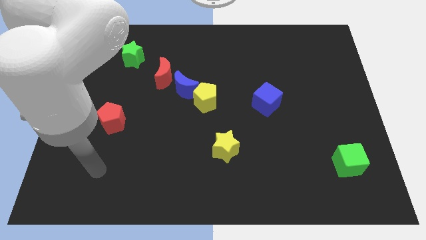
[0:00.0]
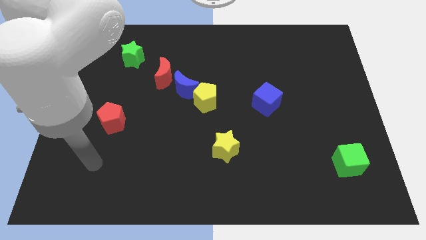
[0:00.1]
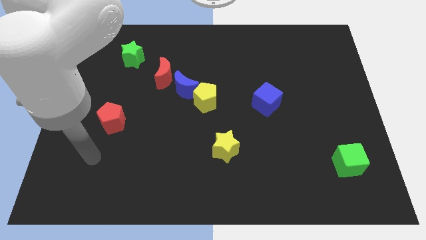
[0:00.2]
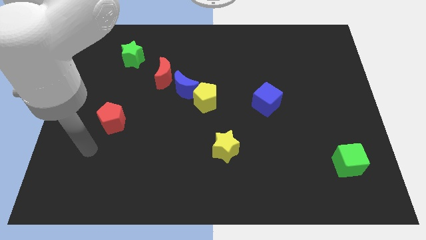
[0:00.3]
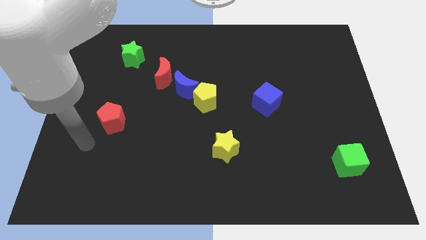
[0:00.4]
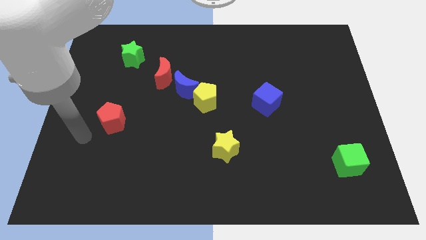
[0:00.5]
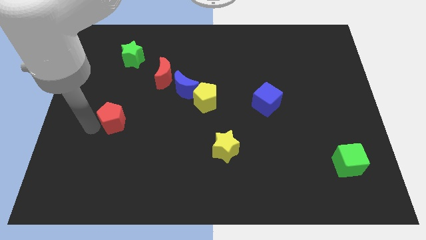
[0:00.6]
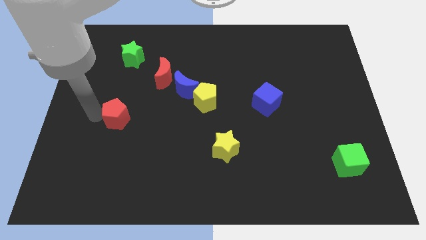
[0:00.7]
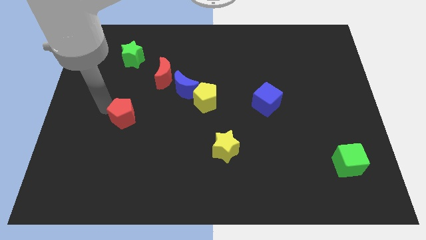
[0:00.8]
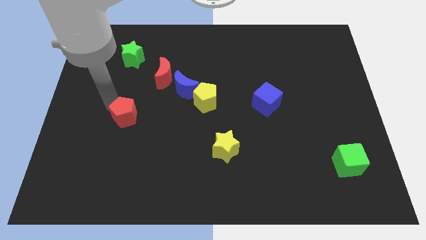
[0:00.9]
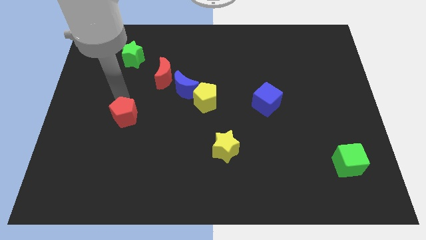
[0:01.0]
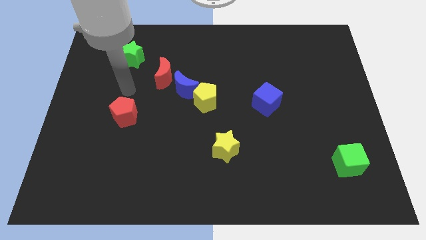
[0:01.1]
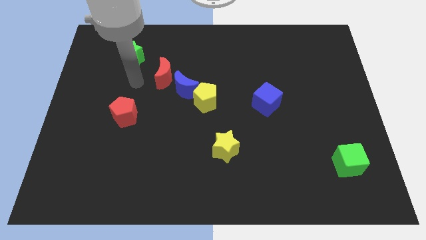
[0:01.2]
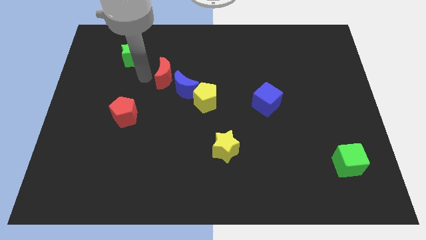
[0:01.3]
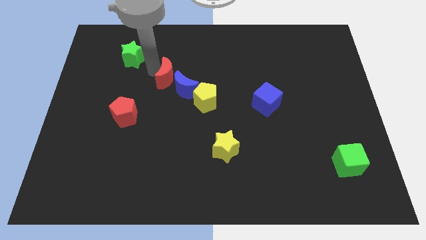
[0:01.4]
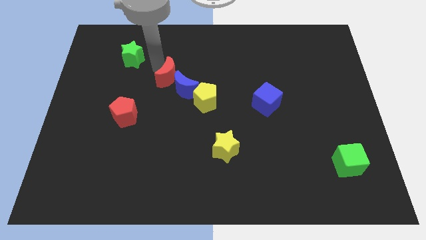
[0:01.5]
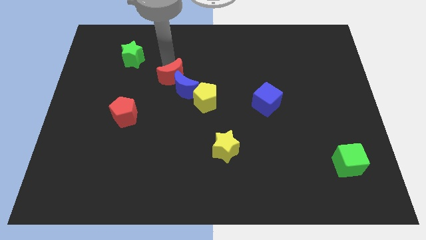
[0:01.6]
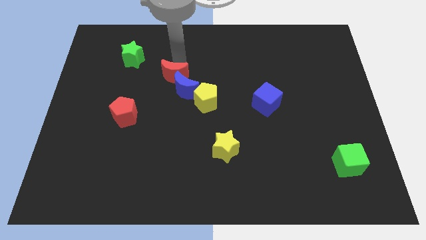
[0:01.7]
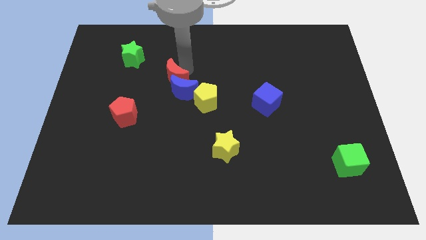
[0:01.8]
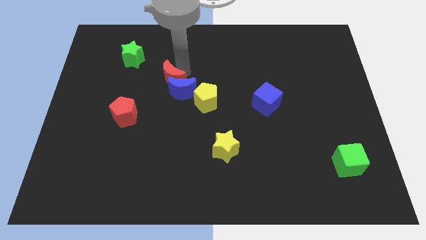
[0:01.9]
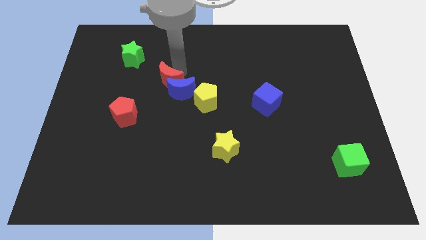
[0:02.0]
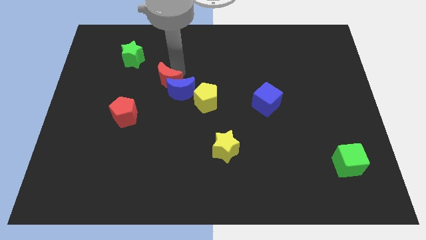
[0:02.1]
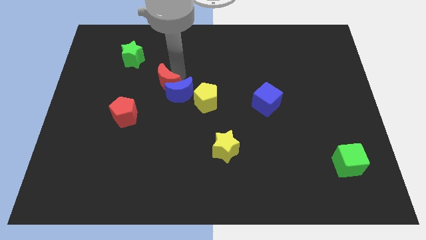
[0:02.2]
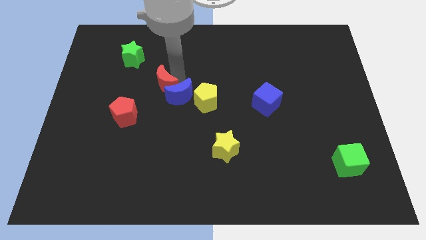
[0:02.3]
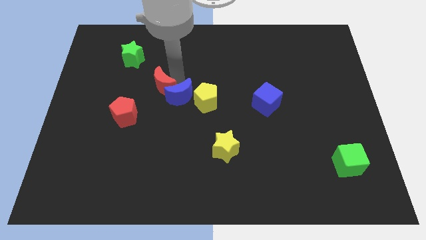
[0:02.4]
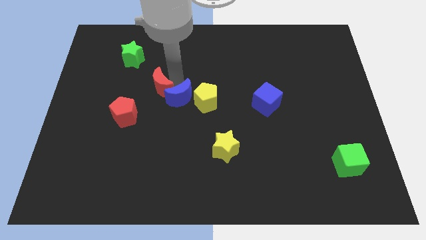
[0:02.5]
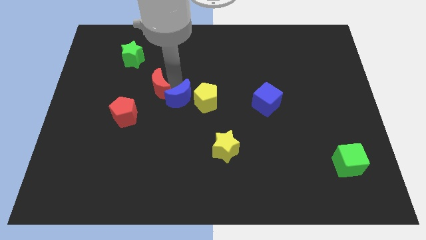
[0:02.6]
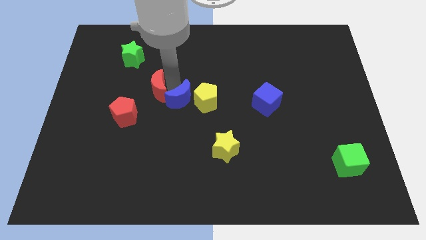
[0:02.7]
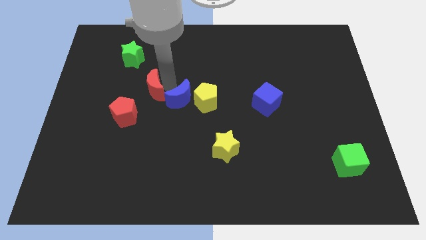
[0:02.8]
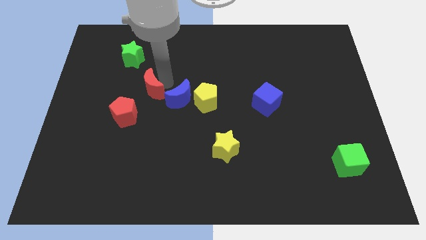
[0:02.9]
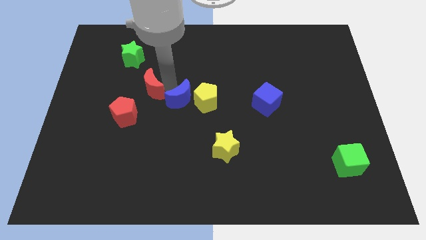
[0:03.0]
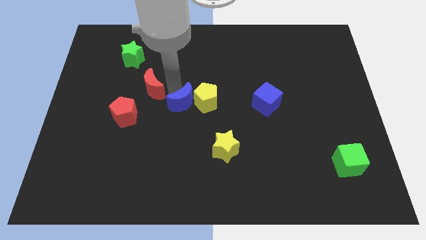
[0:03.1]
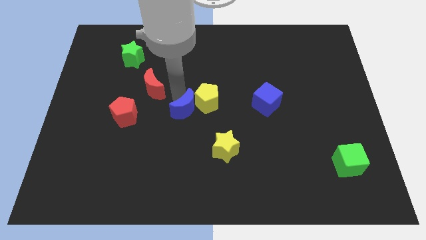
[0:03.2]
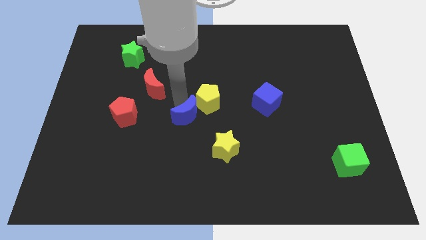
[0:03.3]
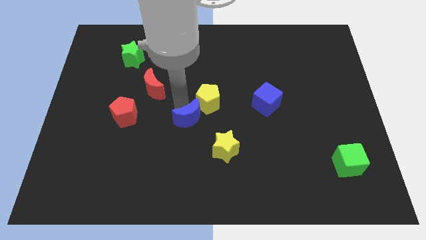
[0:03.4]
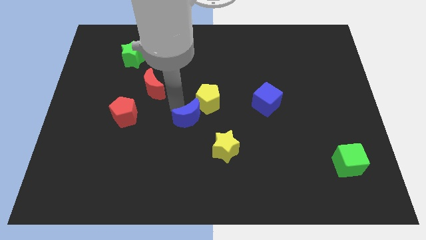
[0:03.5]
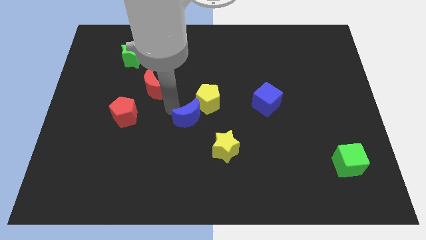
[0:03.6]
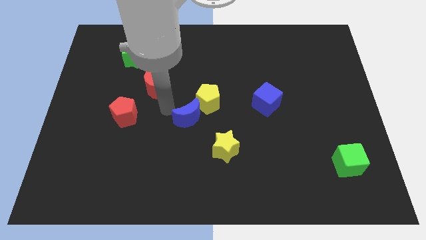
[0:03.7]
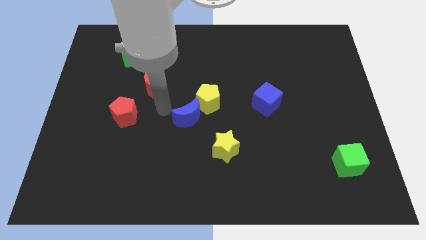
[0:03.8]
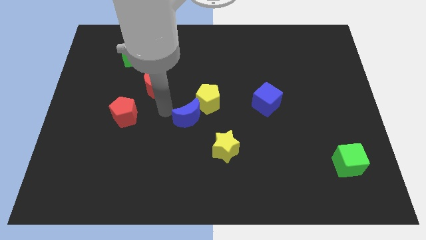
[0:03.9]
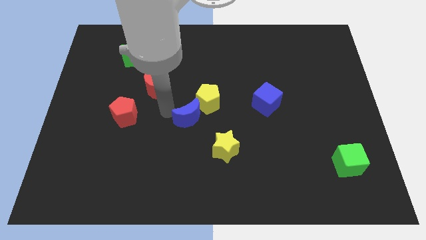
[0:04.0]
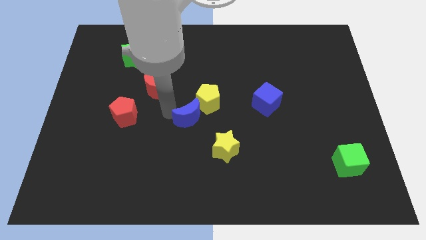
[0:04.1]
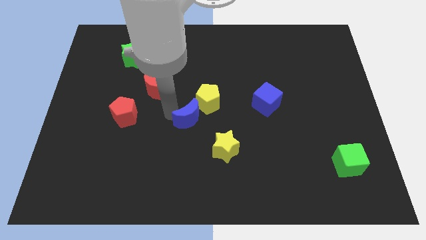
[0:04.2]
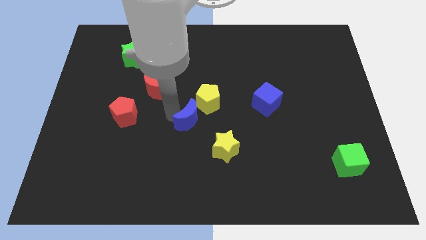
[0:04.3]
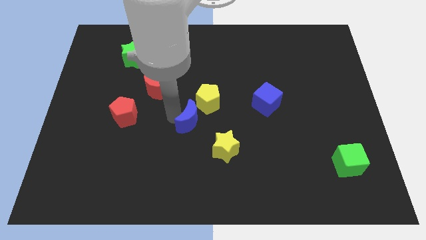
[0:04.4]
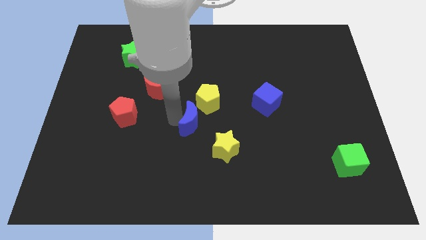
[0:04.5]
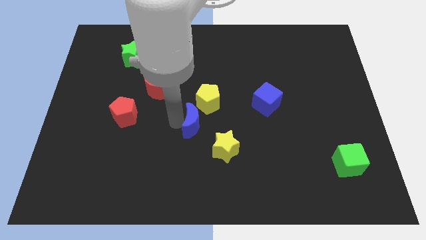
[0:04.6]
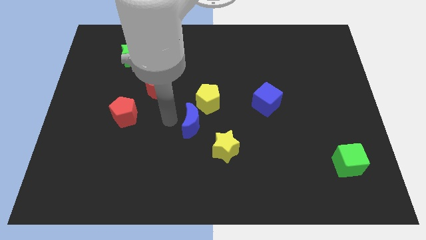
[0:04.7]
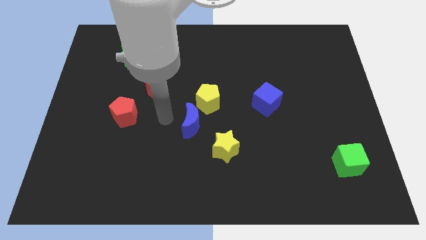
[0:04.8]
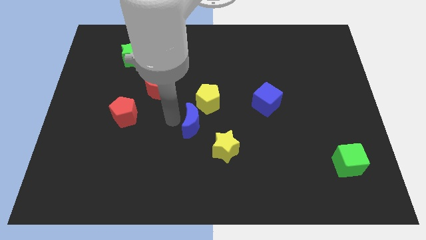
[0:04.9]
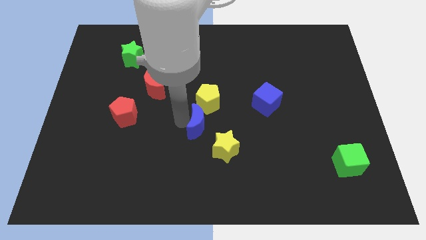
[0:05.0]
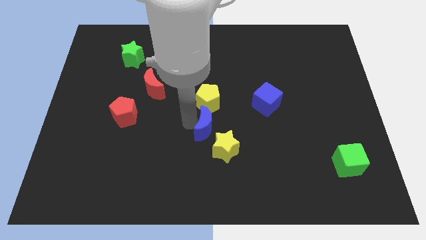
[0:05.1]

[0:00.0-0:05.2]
put the blue moon to the top side of the yellow star

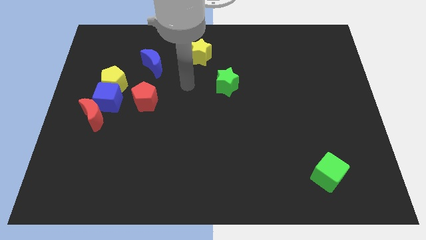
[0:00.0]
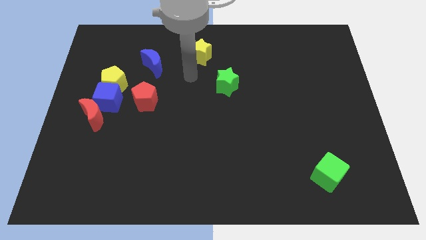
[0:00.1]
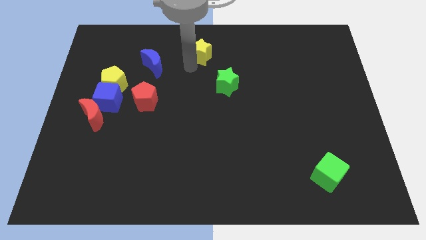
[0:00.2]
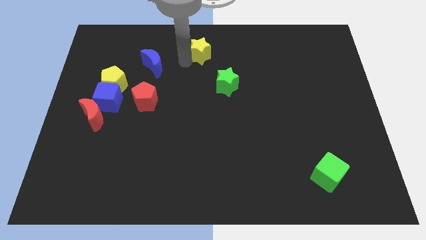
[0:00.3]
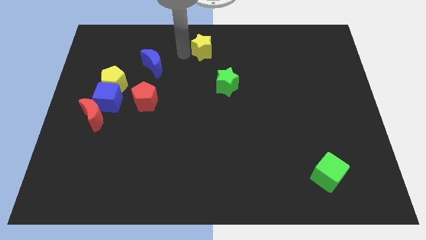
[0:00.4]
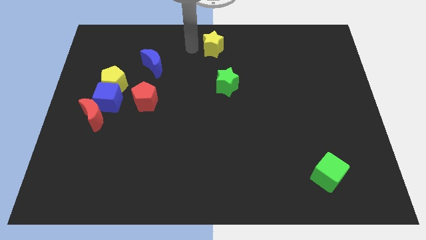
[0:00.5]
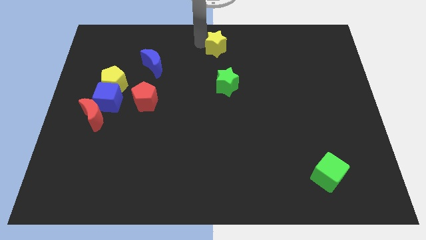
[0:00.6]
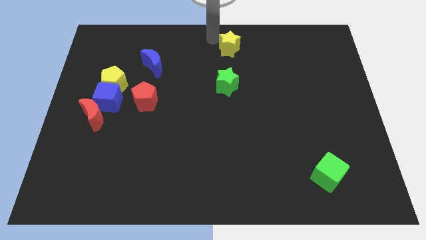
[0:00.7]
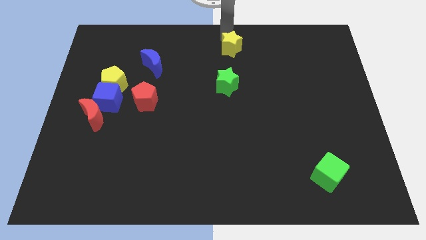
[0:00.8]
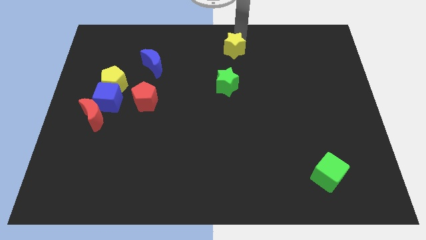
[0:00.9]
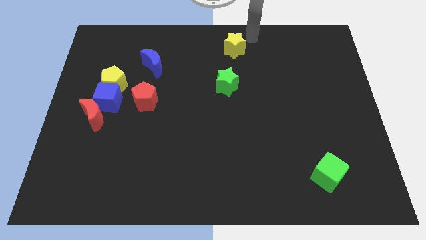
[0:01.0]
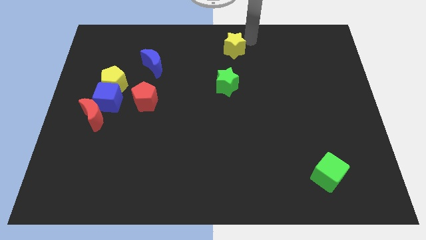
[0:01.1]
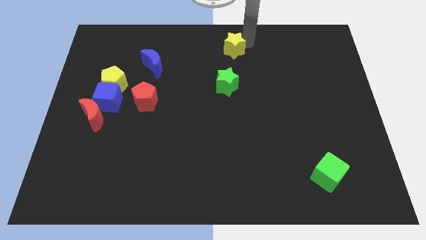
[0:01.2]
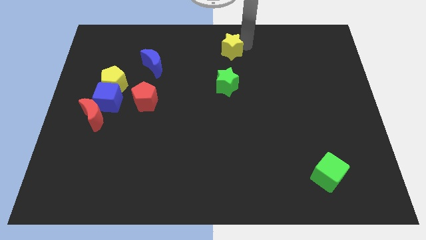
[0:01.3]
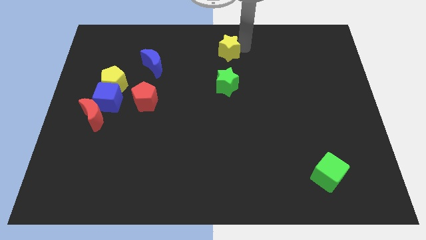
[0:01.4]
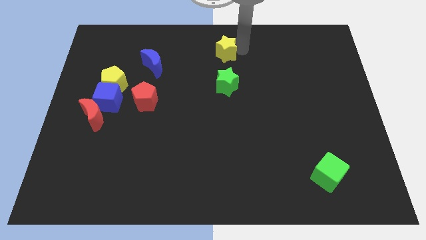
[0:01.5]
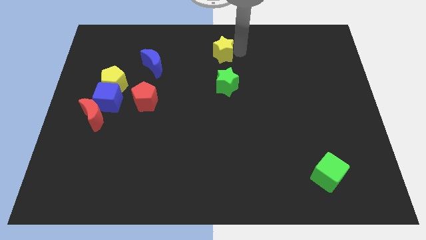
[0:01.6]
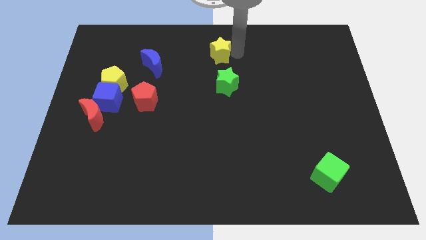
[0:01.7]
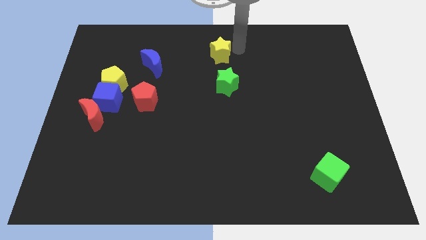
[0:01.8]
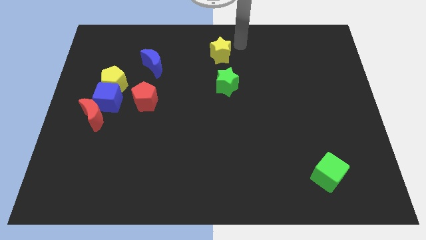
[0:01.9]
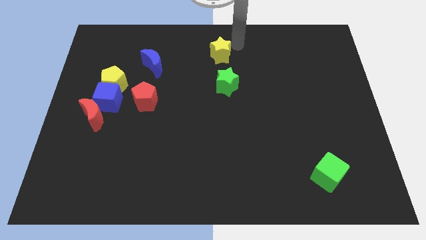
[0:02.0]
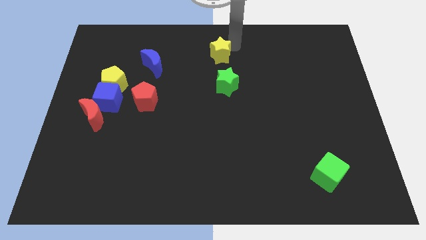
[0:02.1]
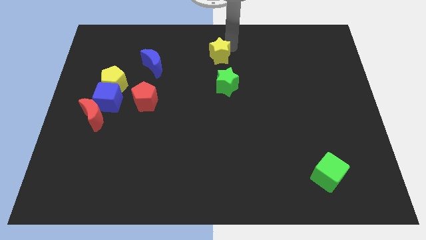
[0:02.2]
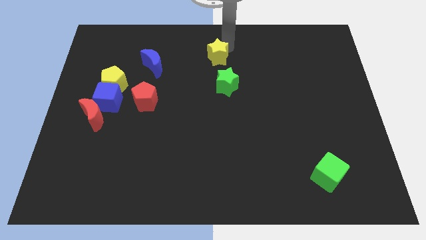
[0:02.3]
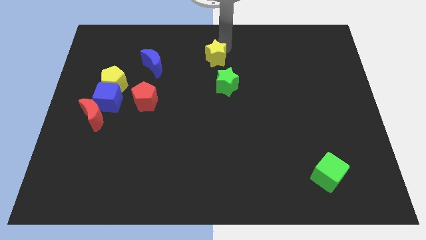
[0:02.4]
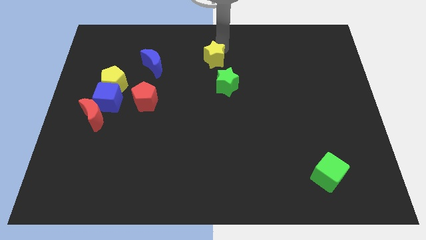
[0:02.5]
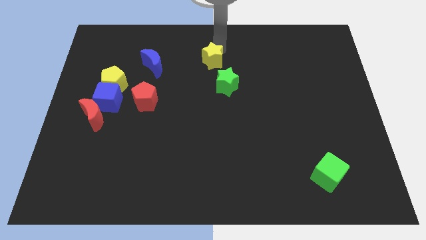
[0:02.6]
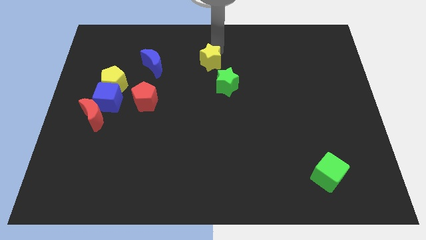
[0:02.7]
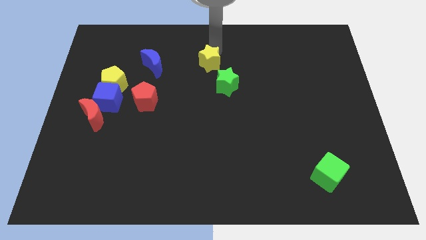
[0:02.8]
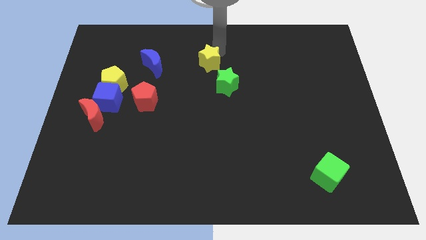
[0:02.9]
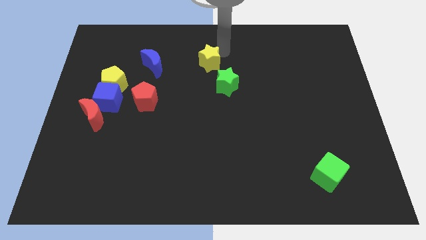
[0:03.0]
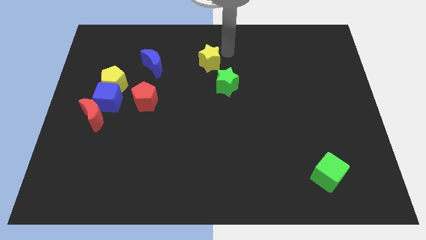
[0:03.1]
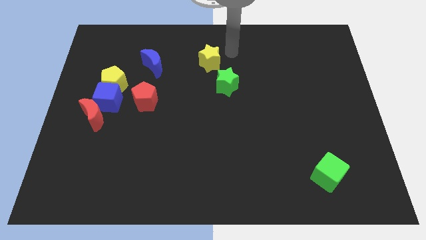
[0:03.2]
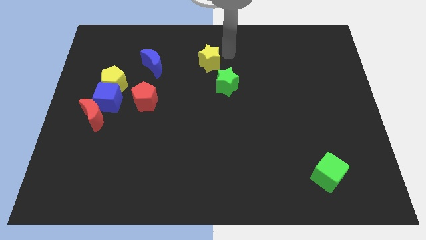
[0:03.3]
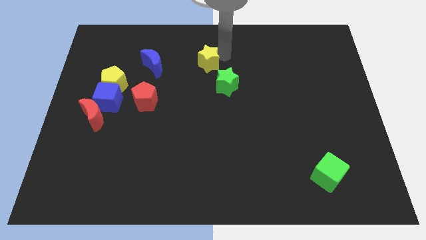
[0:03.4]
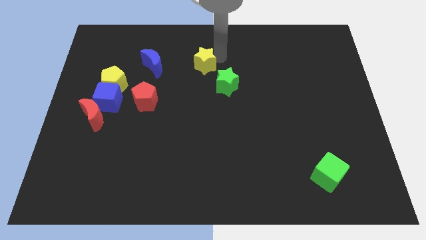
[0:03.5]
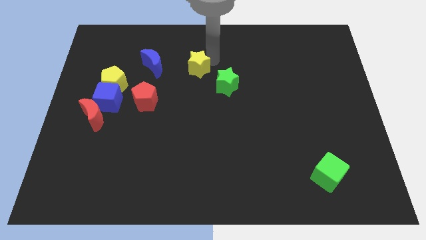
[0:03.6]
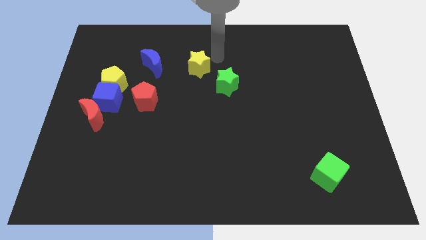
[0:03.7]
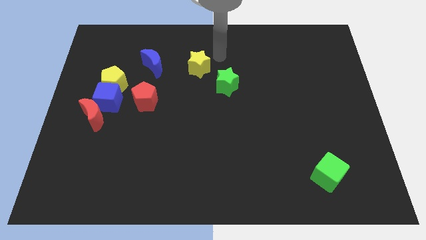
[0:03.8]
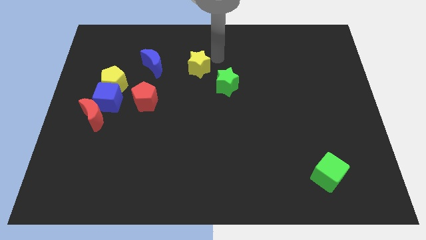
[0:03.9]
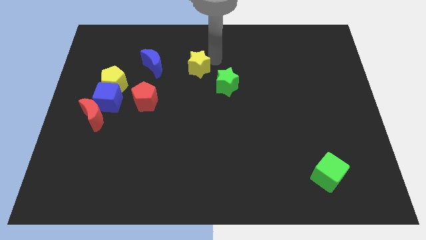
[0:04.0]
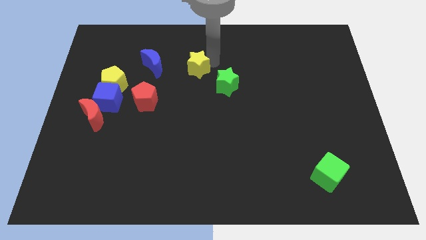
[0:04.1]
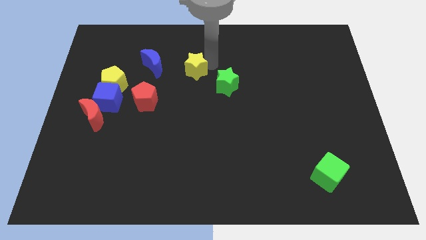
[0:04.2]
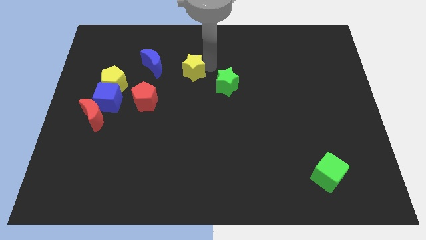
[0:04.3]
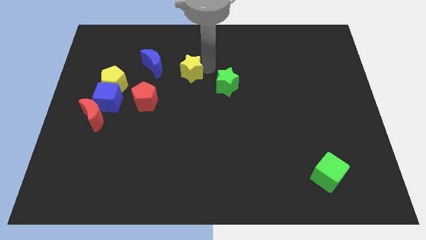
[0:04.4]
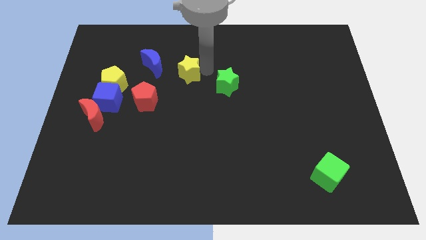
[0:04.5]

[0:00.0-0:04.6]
push the yellow star to the bottom right side of the blue moon
